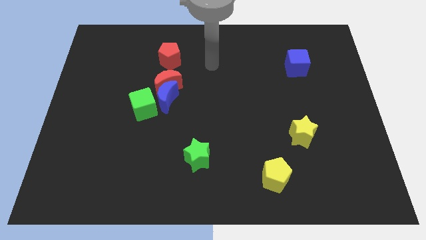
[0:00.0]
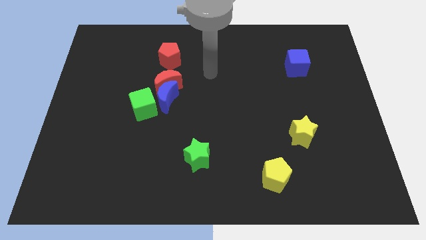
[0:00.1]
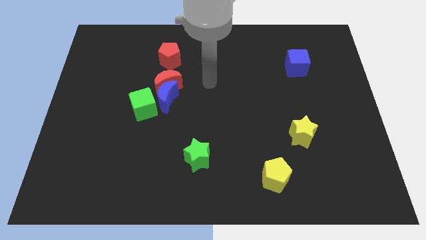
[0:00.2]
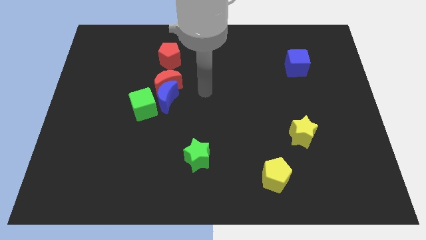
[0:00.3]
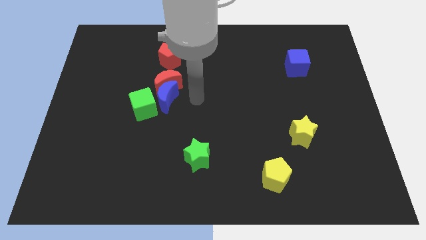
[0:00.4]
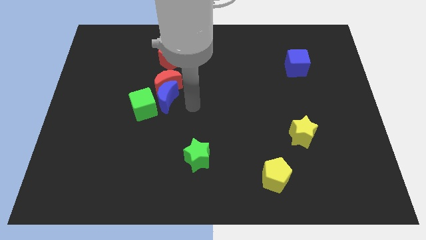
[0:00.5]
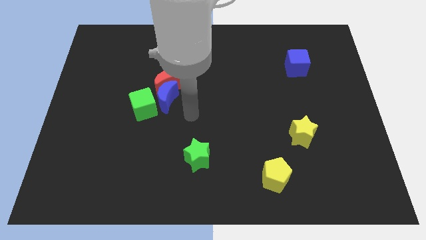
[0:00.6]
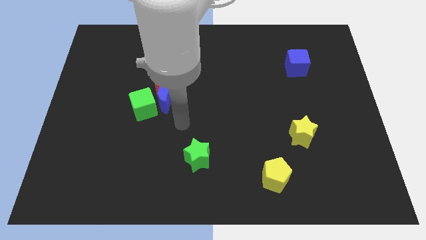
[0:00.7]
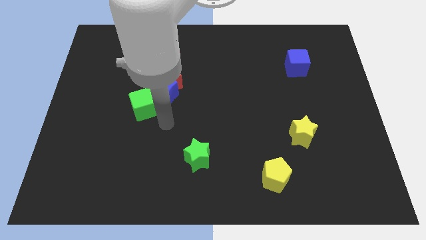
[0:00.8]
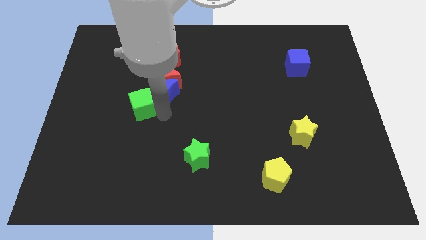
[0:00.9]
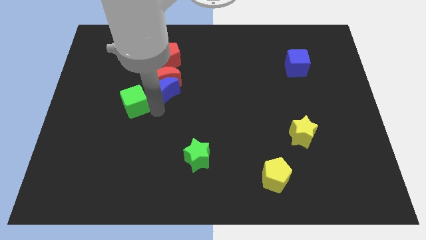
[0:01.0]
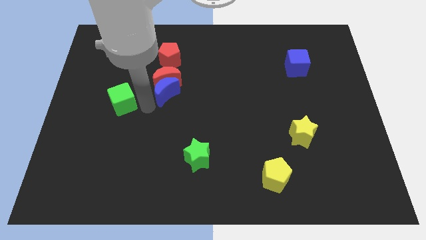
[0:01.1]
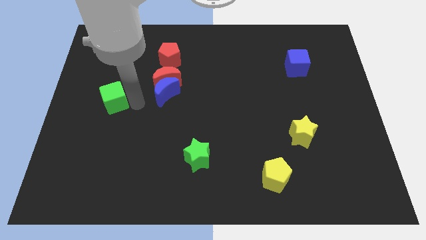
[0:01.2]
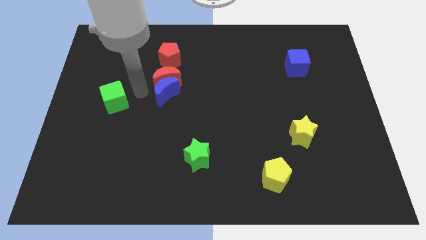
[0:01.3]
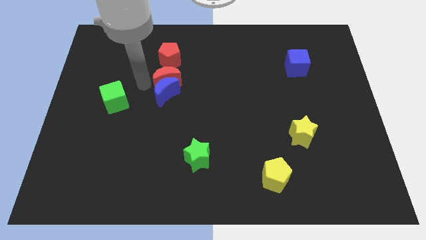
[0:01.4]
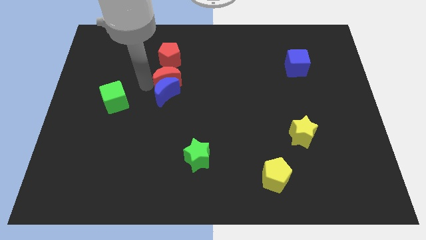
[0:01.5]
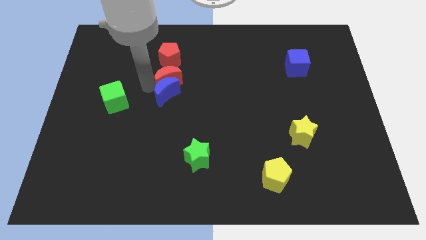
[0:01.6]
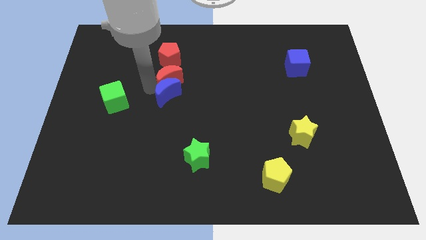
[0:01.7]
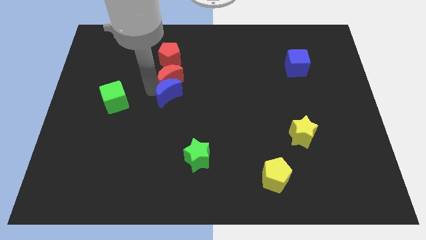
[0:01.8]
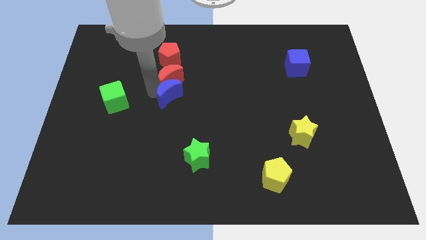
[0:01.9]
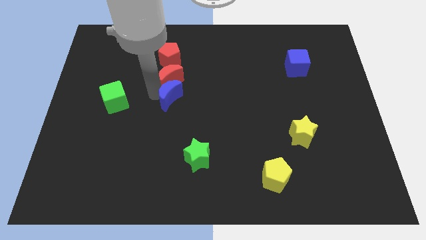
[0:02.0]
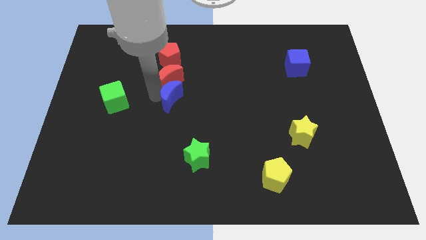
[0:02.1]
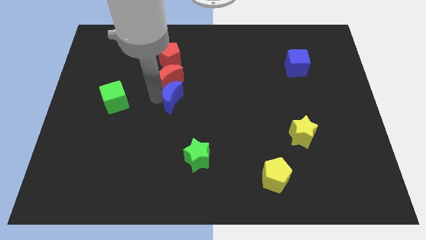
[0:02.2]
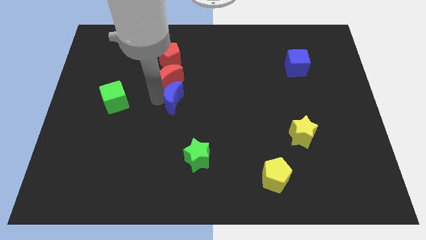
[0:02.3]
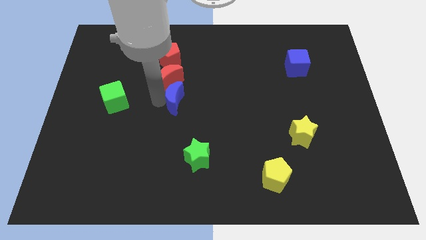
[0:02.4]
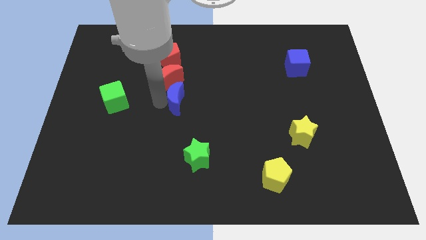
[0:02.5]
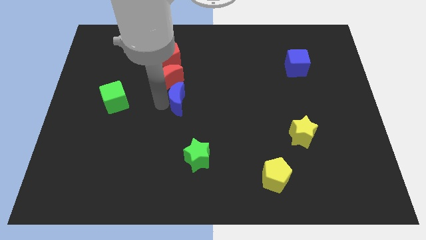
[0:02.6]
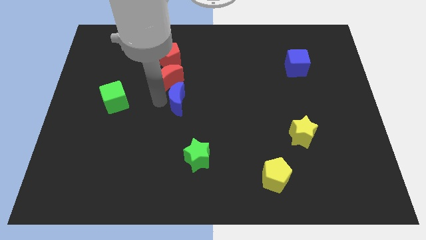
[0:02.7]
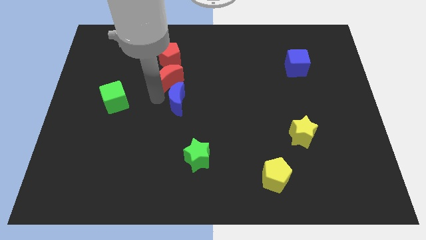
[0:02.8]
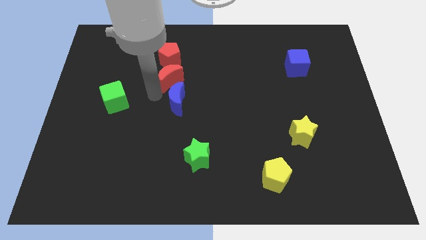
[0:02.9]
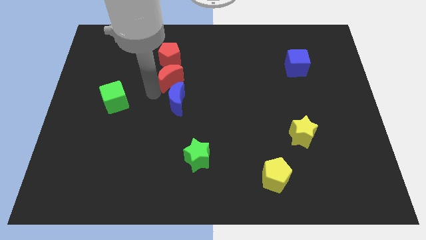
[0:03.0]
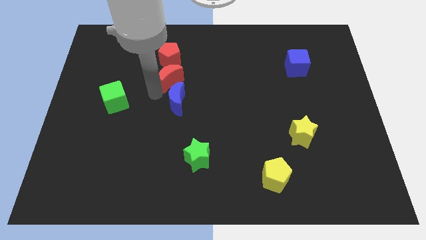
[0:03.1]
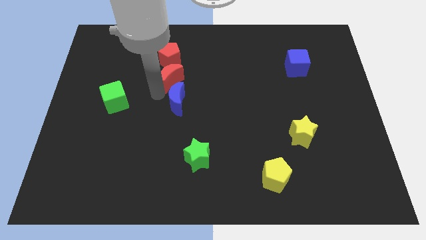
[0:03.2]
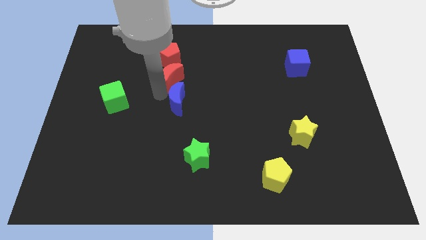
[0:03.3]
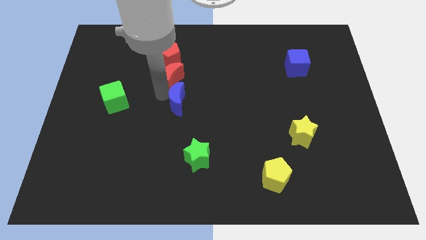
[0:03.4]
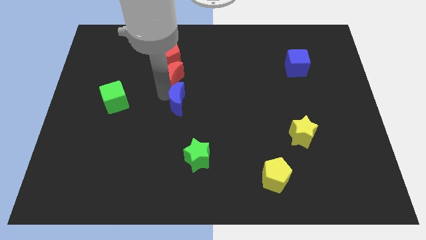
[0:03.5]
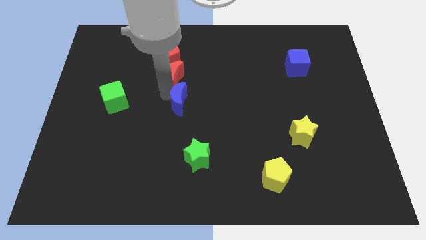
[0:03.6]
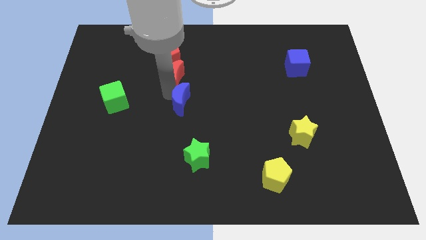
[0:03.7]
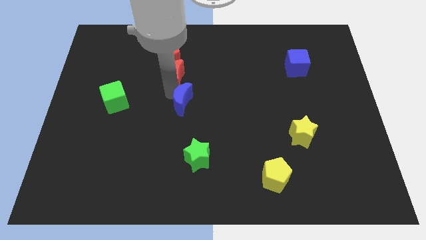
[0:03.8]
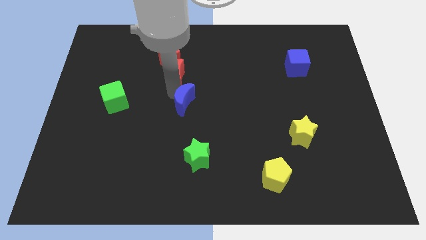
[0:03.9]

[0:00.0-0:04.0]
separate the blue moon from the red moon and green cube

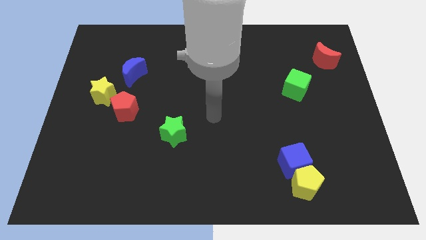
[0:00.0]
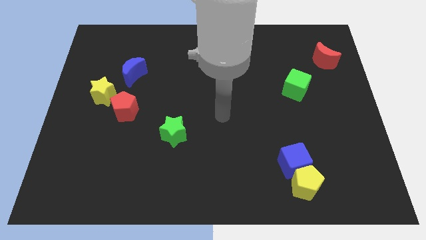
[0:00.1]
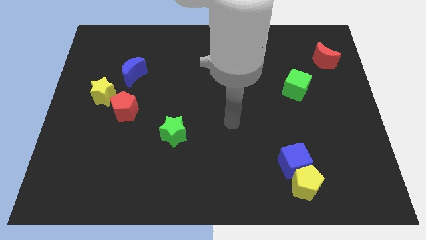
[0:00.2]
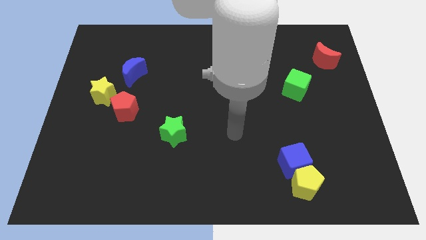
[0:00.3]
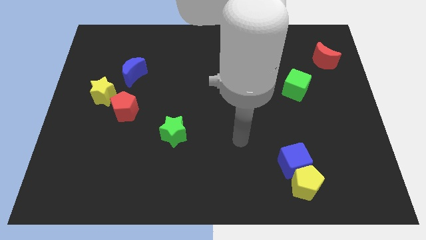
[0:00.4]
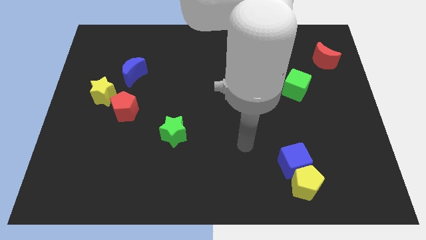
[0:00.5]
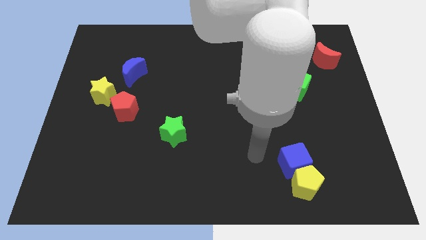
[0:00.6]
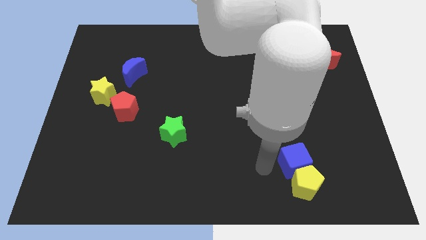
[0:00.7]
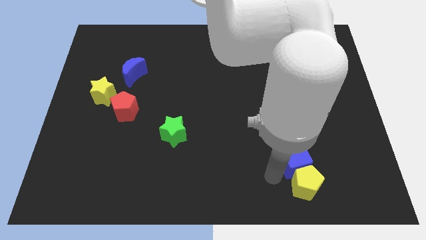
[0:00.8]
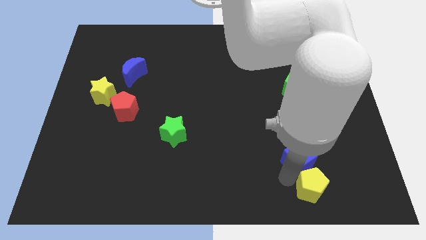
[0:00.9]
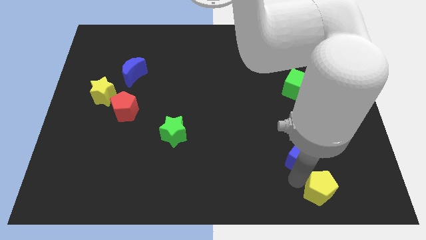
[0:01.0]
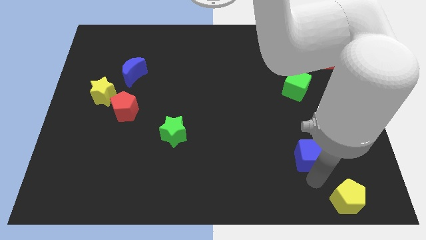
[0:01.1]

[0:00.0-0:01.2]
separate the blue cube from the yellow pentagon

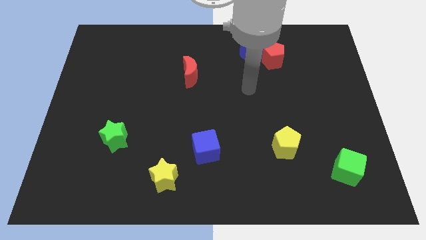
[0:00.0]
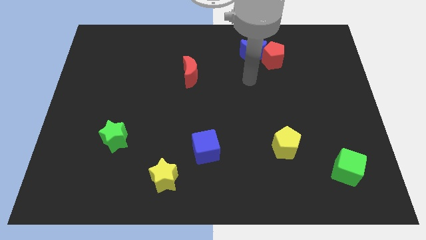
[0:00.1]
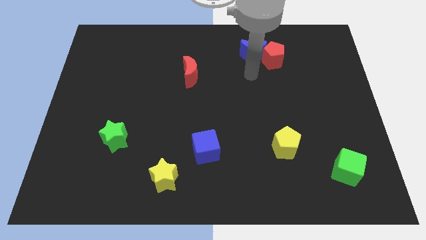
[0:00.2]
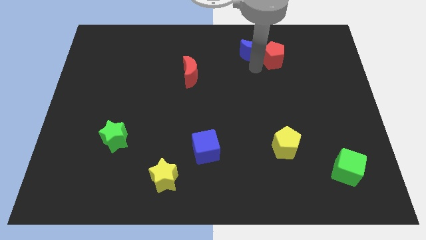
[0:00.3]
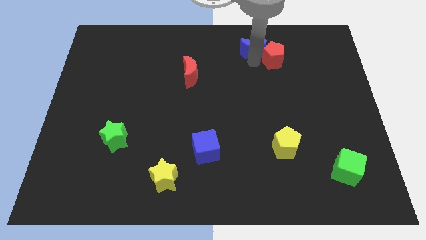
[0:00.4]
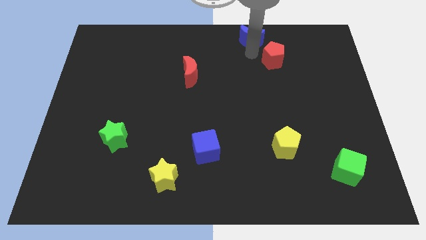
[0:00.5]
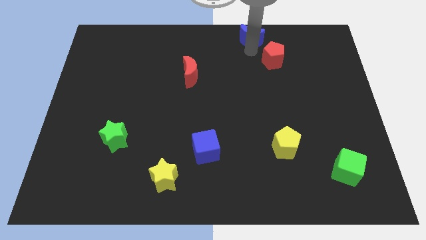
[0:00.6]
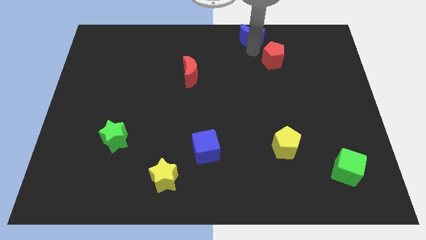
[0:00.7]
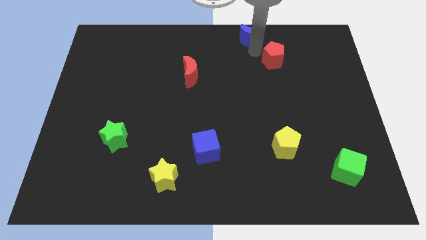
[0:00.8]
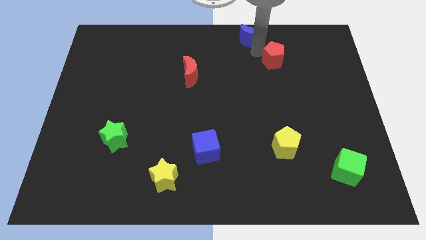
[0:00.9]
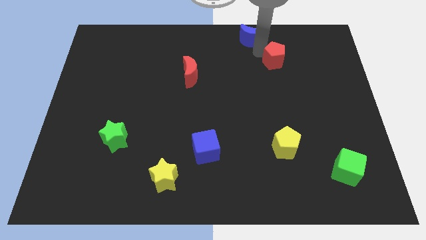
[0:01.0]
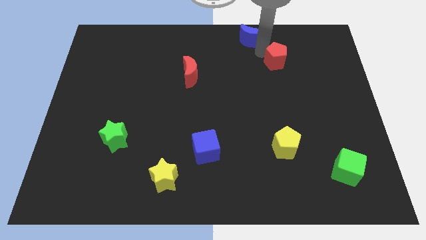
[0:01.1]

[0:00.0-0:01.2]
move the red pentagon away from the blue moon

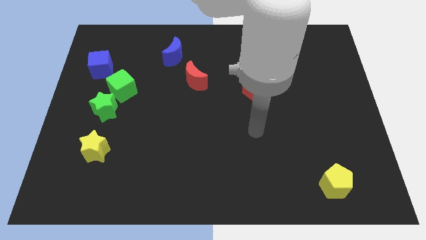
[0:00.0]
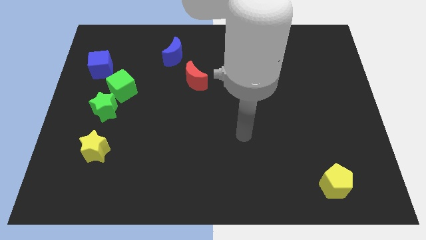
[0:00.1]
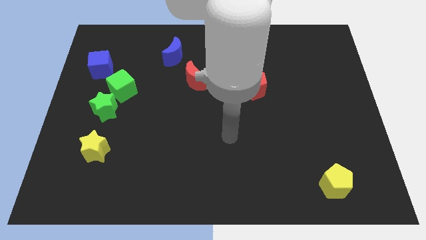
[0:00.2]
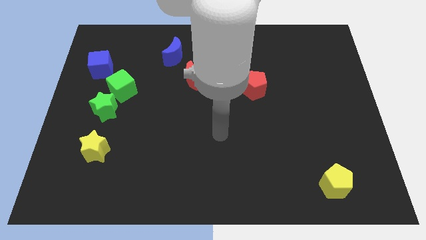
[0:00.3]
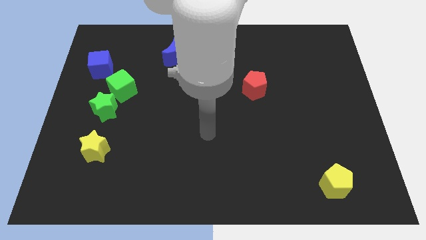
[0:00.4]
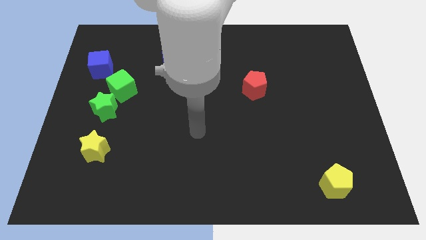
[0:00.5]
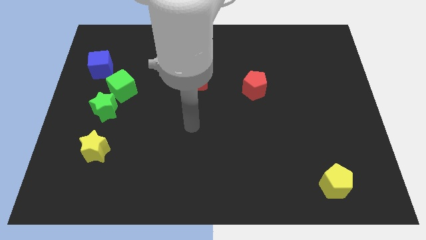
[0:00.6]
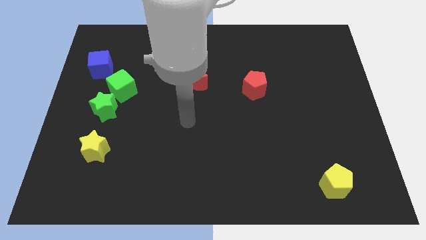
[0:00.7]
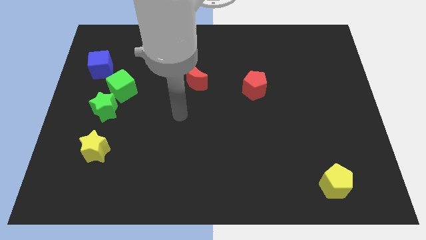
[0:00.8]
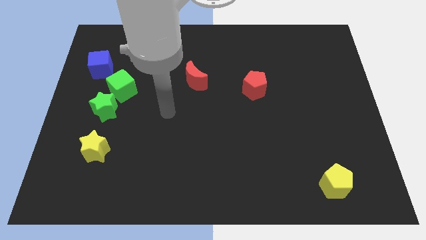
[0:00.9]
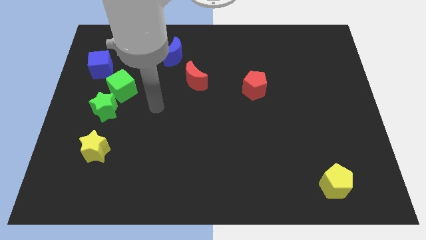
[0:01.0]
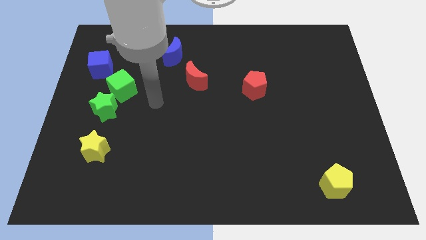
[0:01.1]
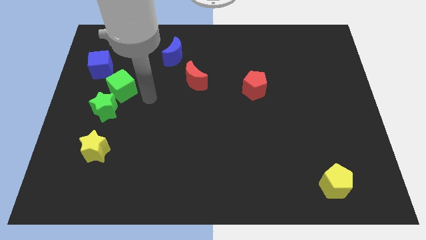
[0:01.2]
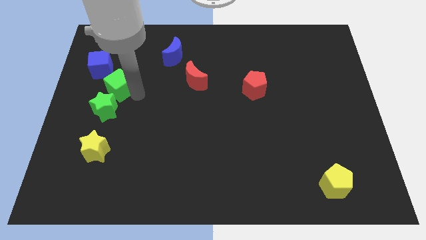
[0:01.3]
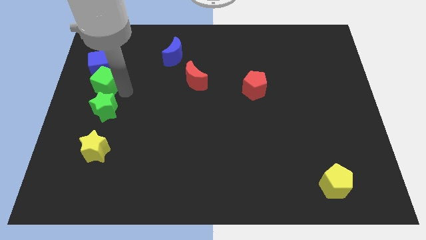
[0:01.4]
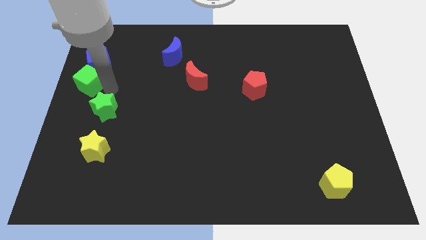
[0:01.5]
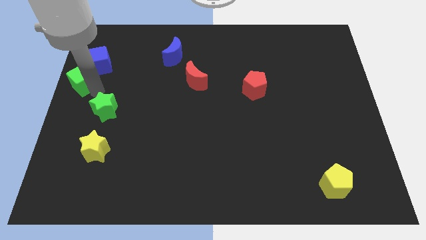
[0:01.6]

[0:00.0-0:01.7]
move the green star away from the green cube

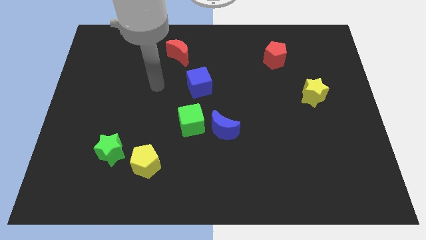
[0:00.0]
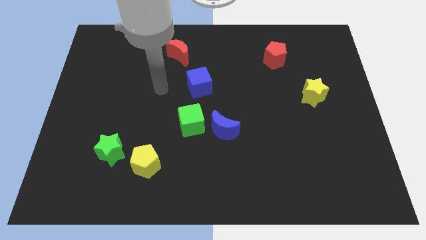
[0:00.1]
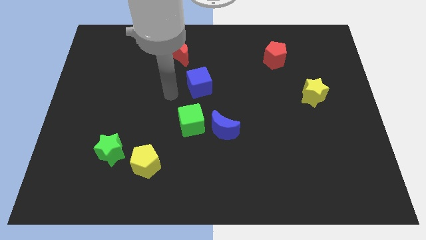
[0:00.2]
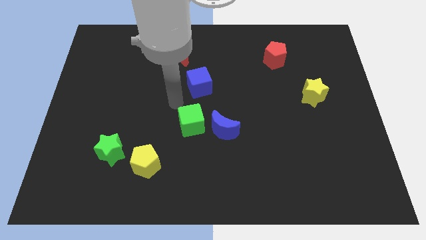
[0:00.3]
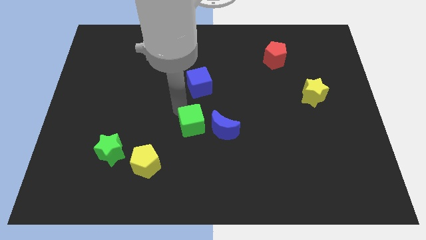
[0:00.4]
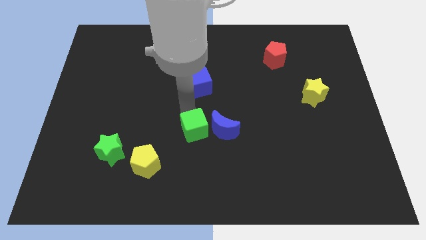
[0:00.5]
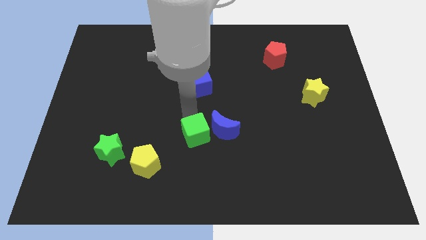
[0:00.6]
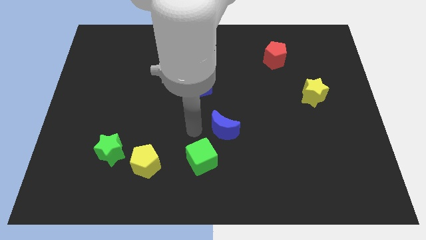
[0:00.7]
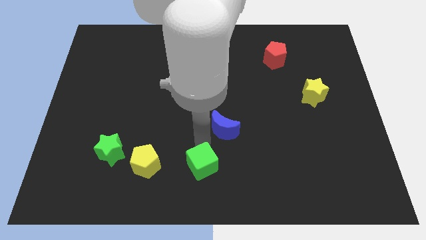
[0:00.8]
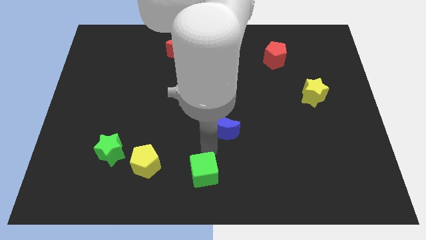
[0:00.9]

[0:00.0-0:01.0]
move the blue moon away from the green cube

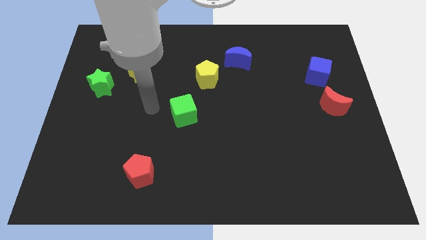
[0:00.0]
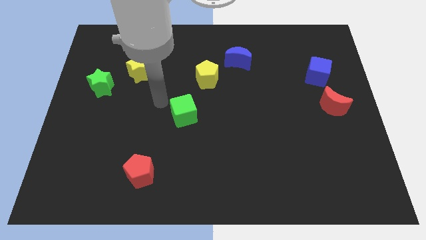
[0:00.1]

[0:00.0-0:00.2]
pull the blue moon apart from the yellow pentagon
